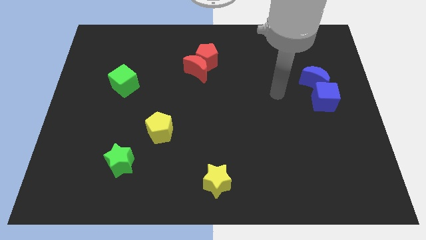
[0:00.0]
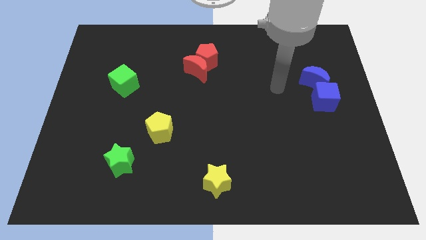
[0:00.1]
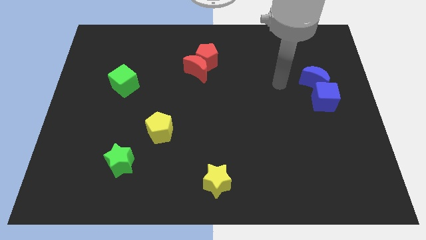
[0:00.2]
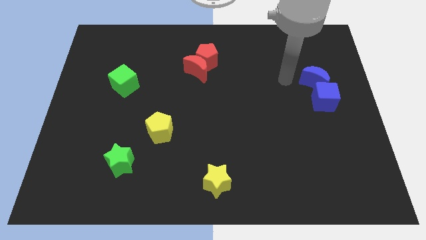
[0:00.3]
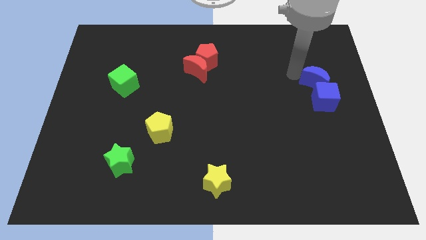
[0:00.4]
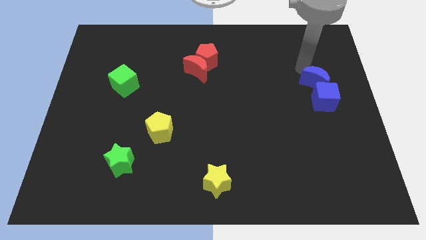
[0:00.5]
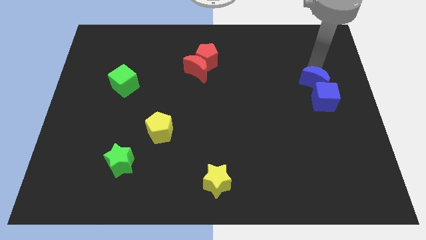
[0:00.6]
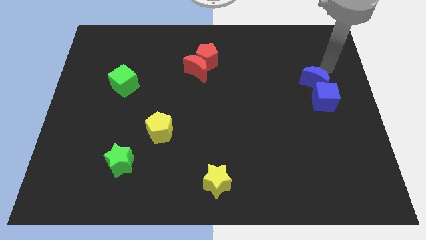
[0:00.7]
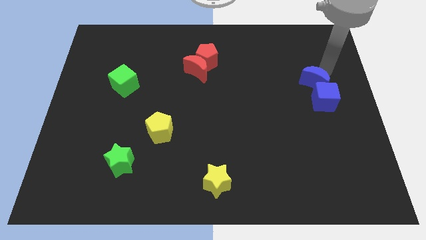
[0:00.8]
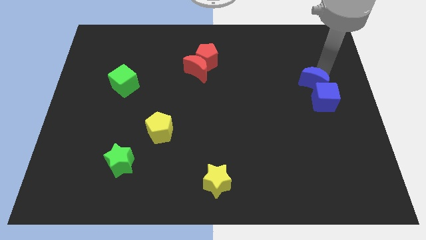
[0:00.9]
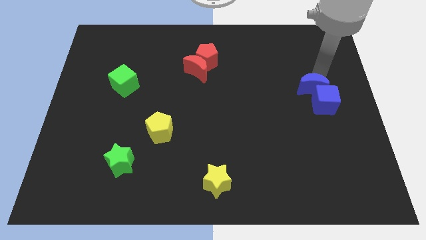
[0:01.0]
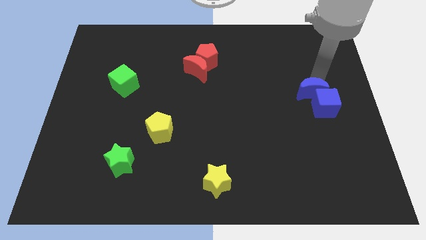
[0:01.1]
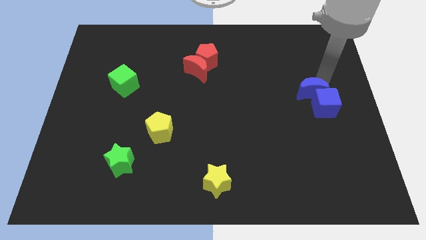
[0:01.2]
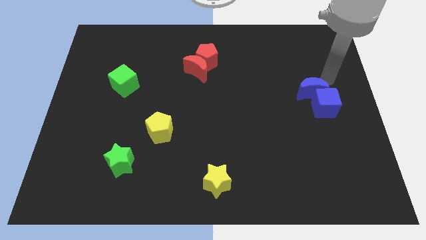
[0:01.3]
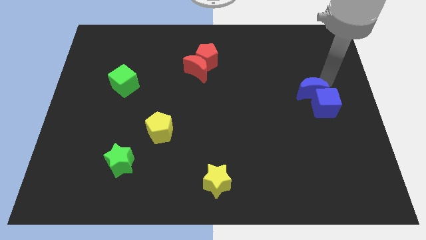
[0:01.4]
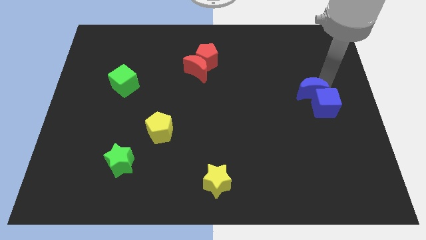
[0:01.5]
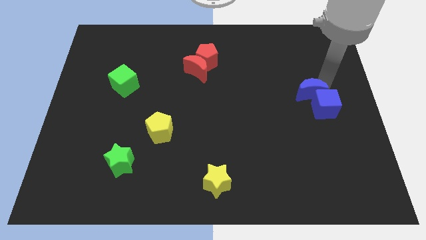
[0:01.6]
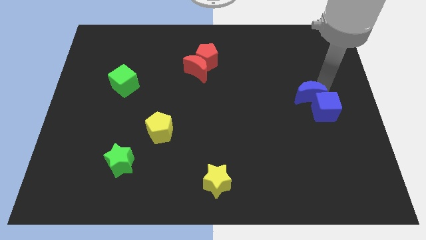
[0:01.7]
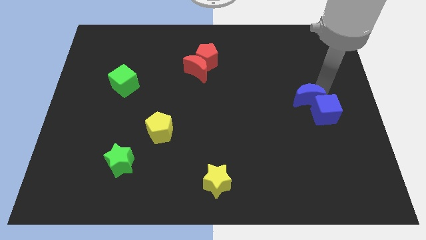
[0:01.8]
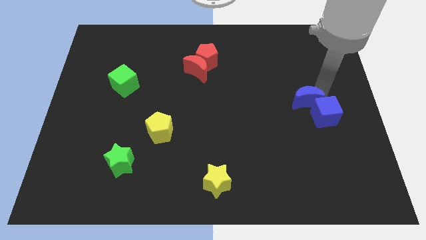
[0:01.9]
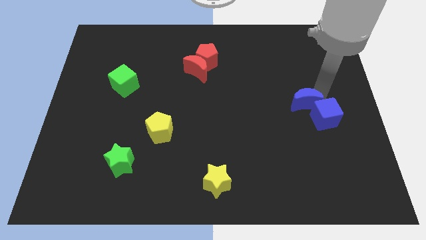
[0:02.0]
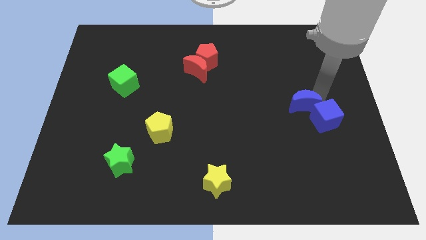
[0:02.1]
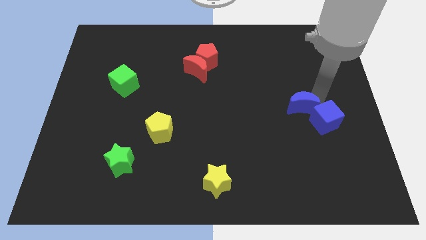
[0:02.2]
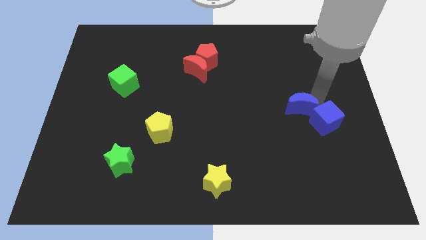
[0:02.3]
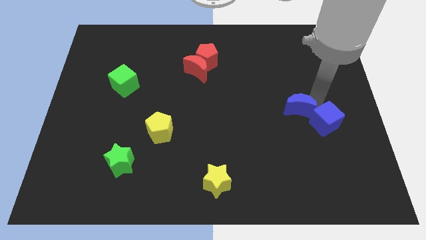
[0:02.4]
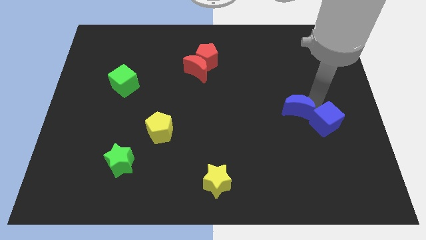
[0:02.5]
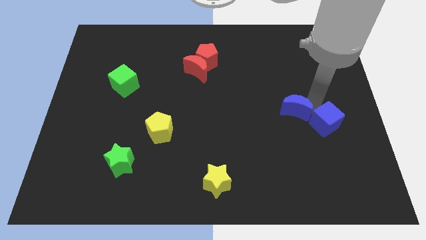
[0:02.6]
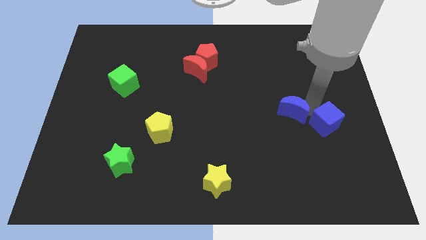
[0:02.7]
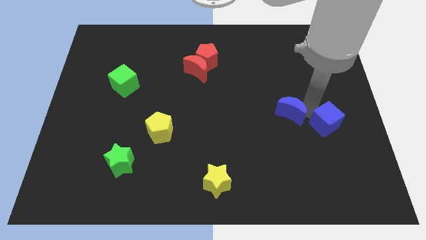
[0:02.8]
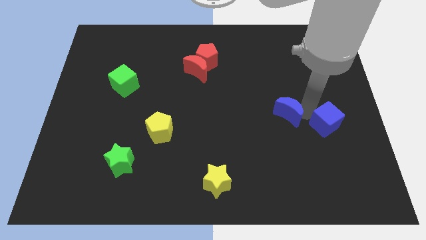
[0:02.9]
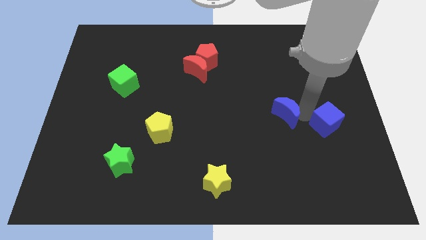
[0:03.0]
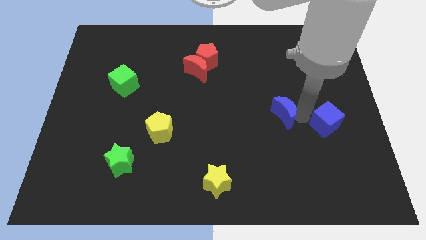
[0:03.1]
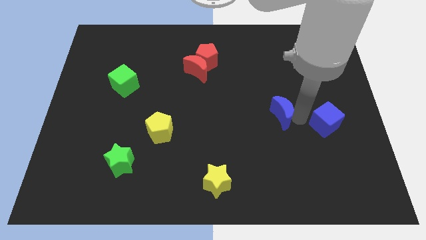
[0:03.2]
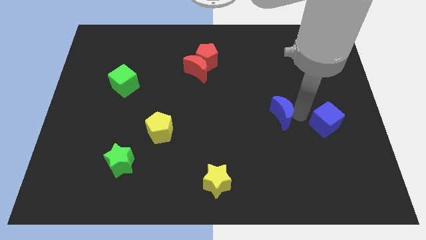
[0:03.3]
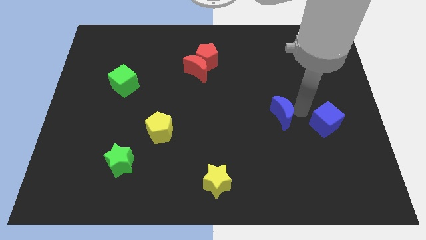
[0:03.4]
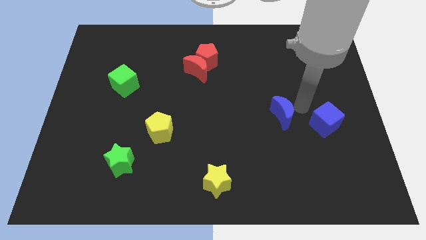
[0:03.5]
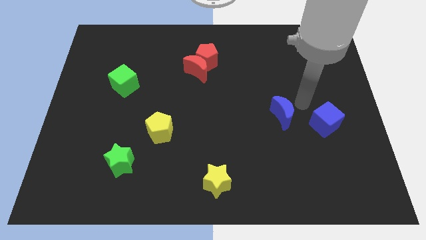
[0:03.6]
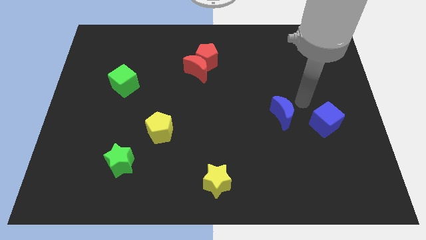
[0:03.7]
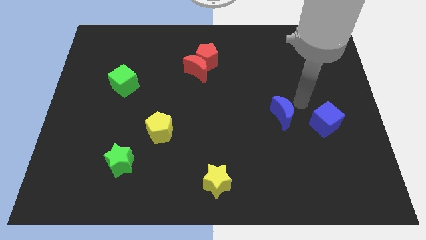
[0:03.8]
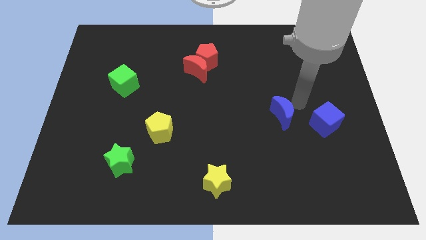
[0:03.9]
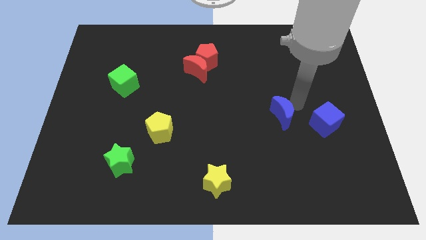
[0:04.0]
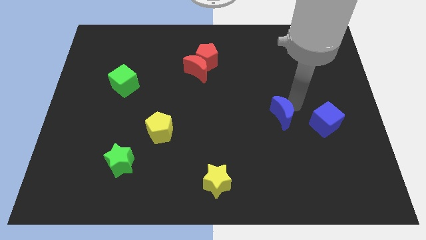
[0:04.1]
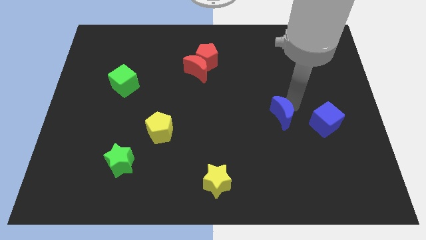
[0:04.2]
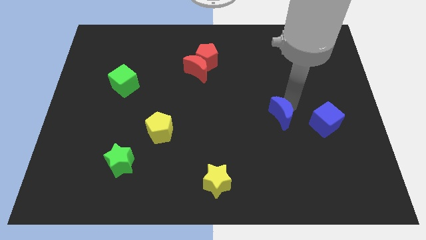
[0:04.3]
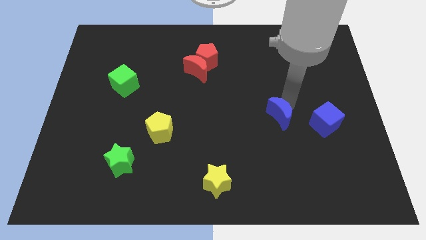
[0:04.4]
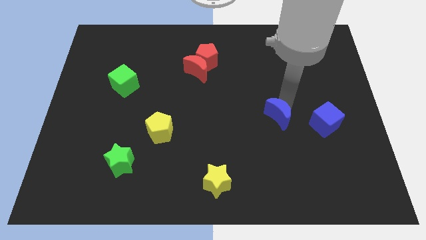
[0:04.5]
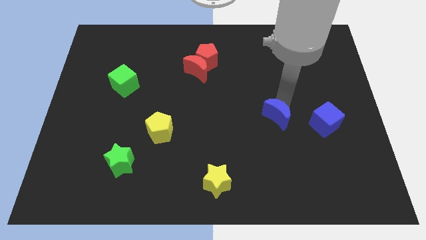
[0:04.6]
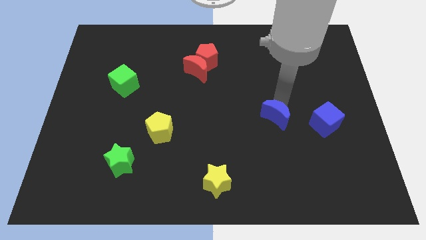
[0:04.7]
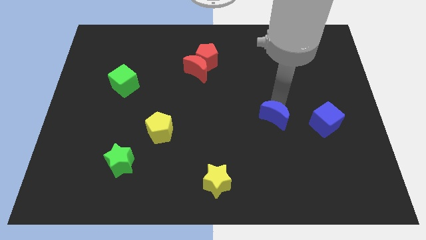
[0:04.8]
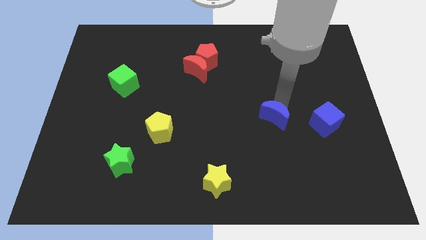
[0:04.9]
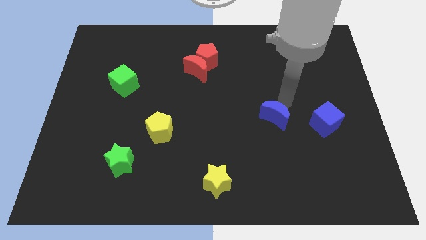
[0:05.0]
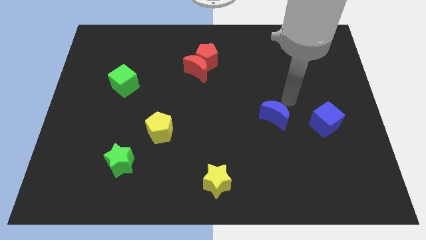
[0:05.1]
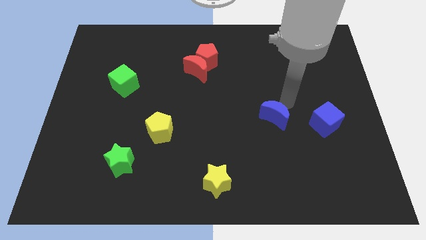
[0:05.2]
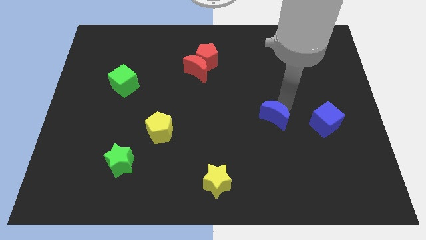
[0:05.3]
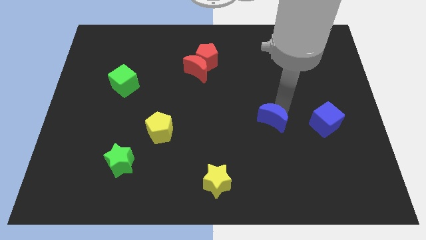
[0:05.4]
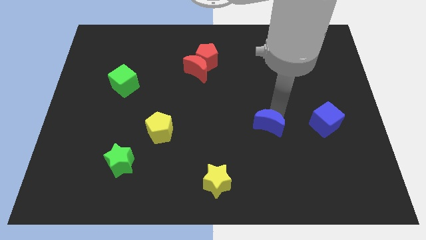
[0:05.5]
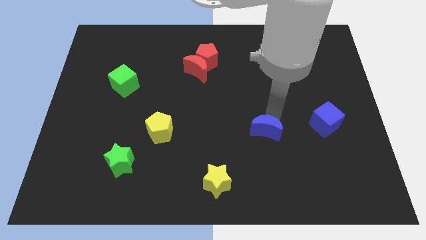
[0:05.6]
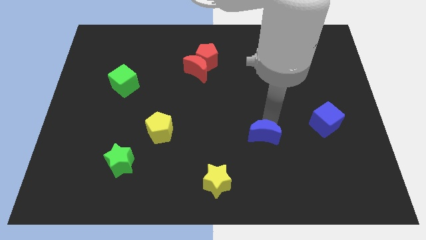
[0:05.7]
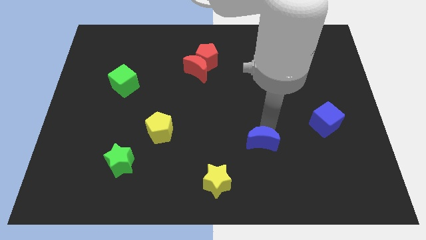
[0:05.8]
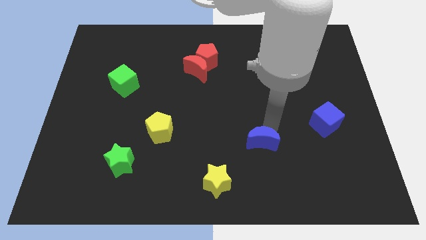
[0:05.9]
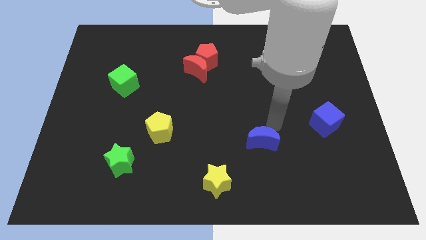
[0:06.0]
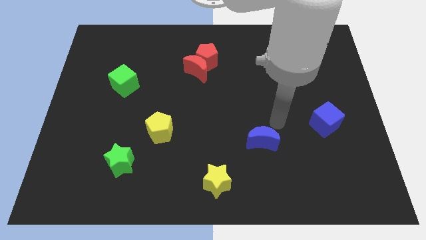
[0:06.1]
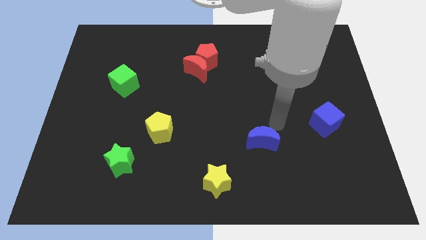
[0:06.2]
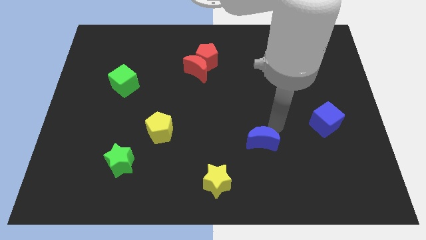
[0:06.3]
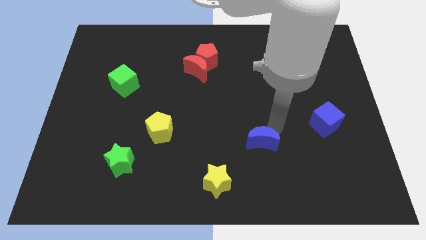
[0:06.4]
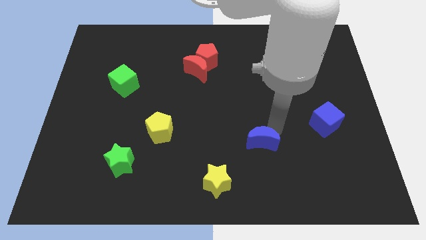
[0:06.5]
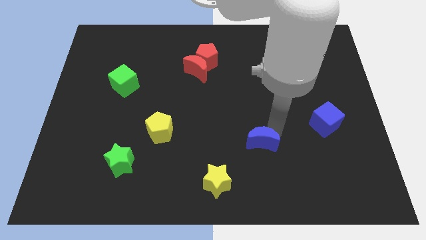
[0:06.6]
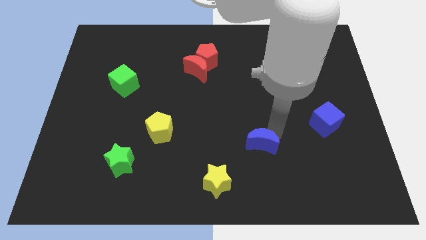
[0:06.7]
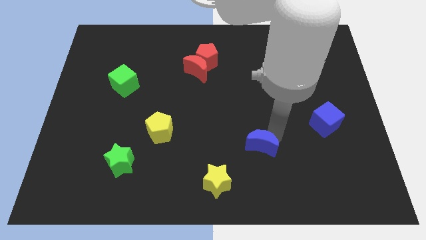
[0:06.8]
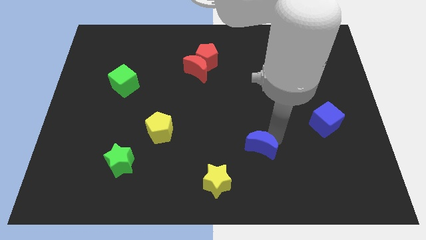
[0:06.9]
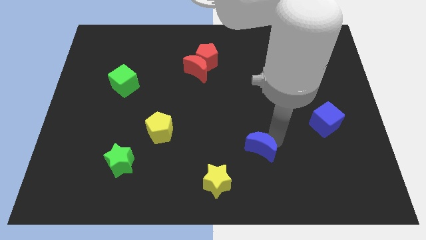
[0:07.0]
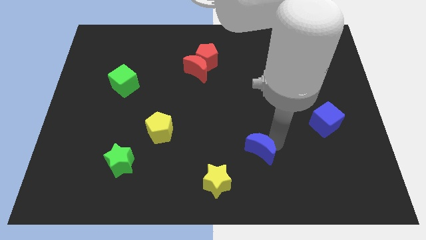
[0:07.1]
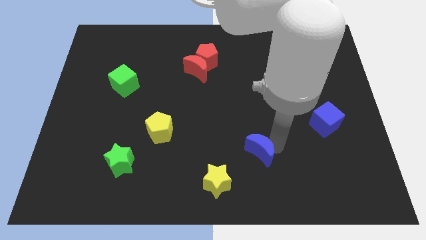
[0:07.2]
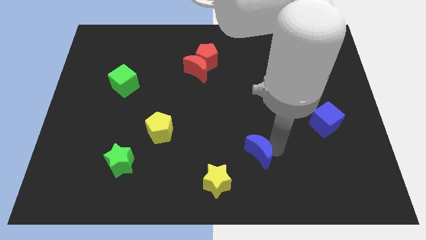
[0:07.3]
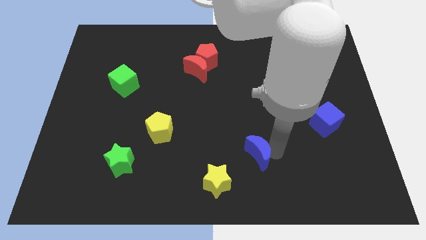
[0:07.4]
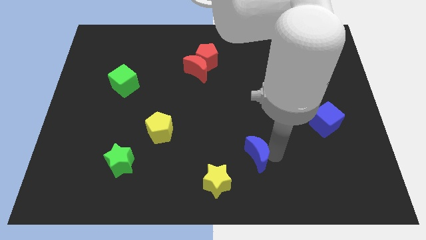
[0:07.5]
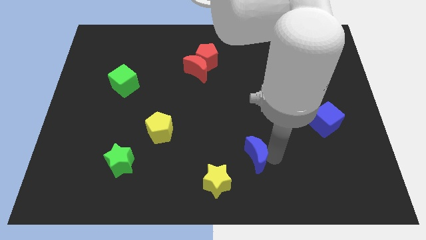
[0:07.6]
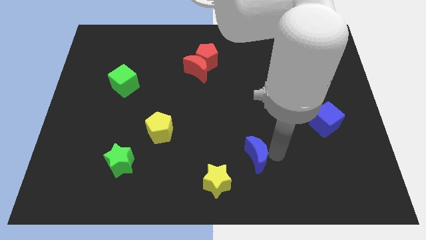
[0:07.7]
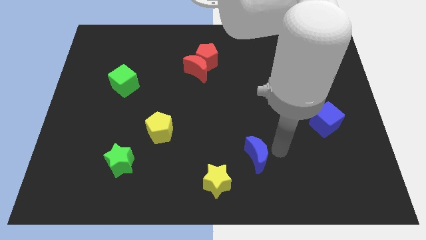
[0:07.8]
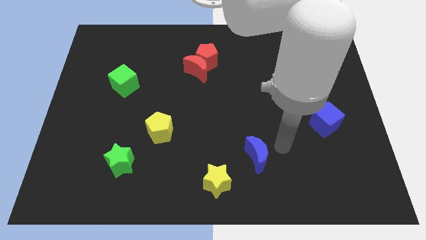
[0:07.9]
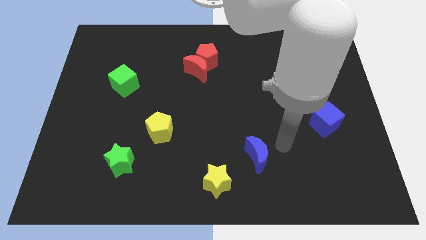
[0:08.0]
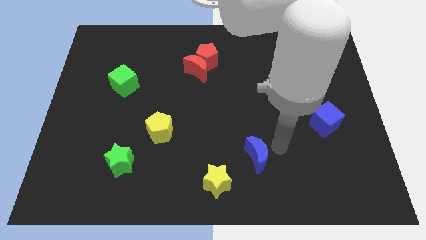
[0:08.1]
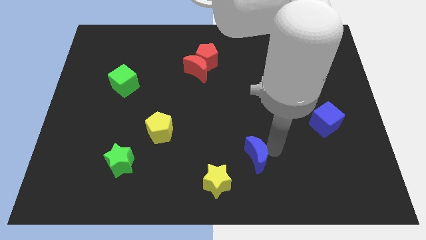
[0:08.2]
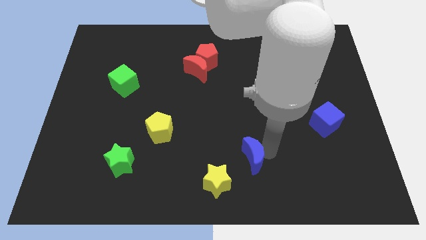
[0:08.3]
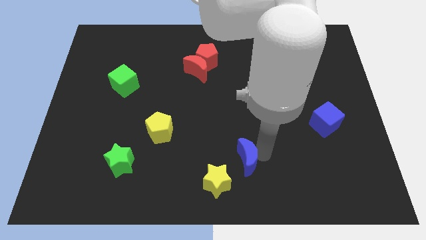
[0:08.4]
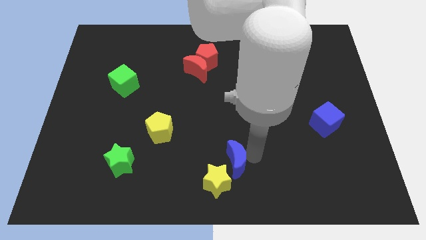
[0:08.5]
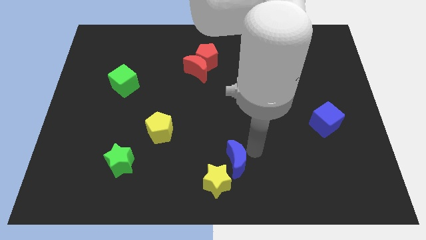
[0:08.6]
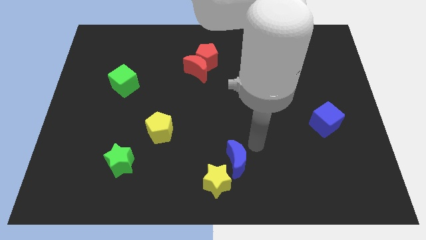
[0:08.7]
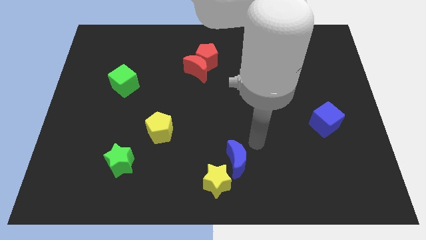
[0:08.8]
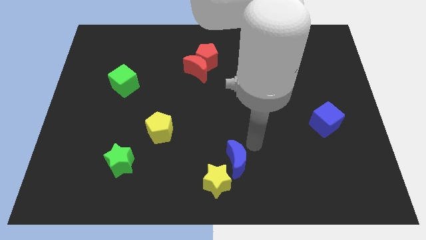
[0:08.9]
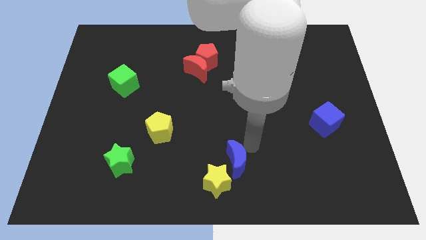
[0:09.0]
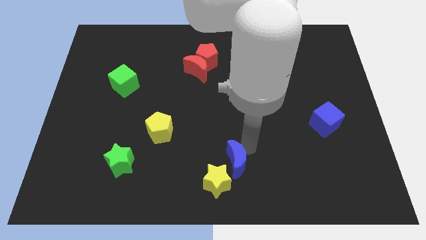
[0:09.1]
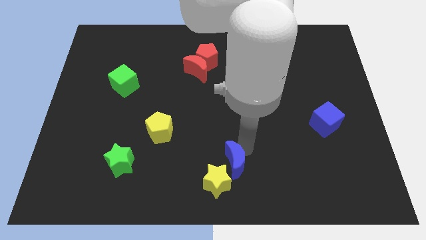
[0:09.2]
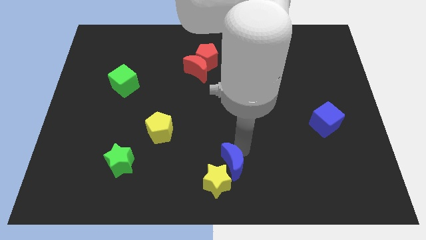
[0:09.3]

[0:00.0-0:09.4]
slide the blue moon next to the yellow star
